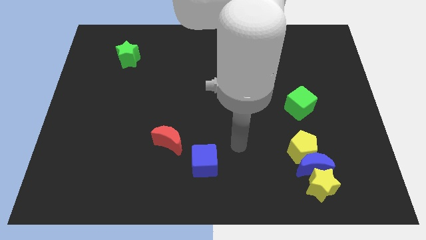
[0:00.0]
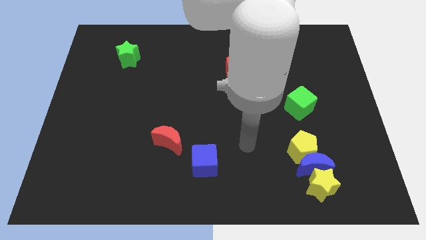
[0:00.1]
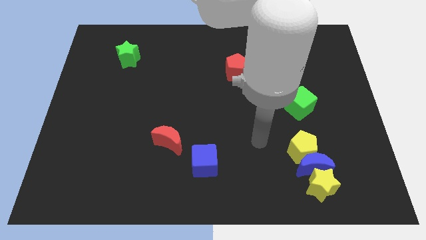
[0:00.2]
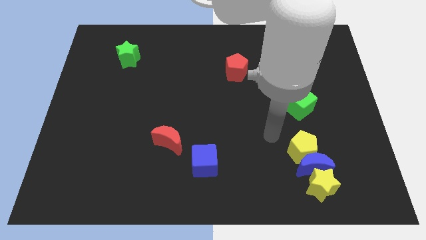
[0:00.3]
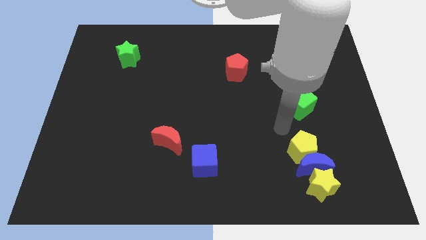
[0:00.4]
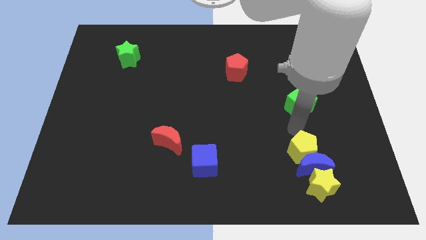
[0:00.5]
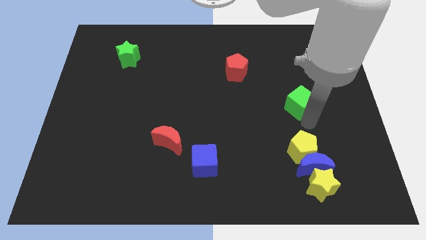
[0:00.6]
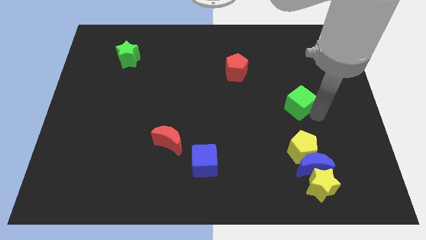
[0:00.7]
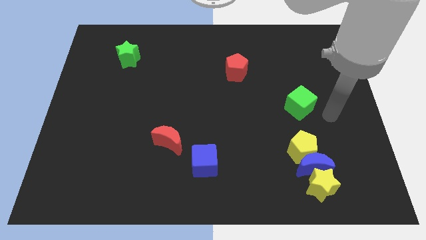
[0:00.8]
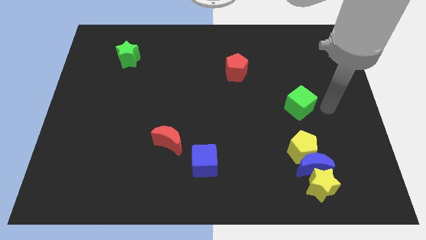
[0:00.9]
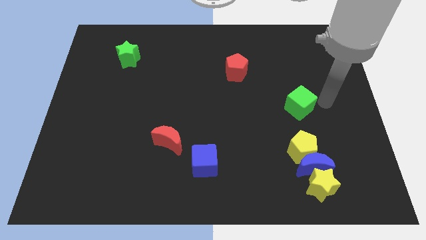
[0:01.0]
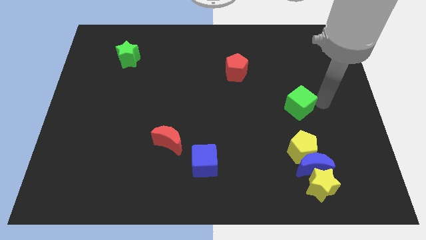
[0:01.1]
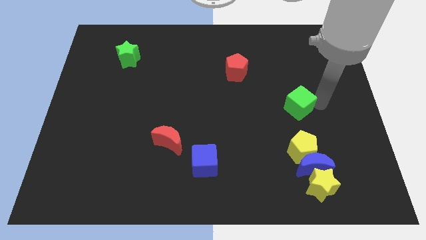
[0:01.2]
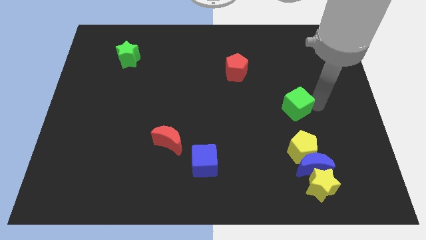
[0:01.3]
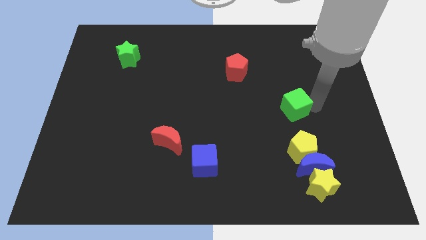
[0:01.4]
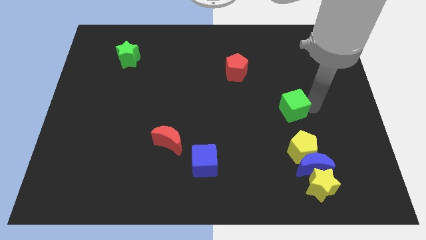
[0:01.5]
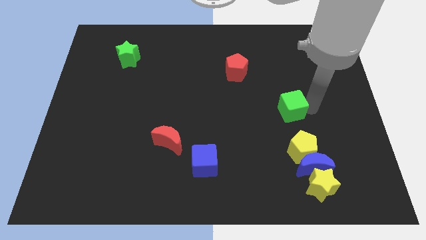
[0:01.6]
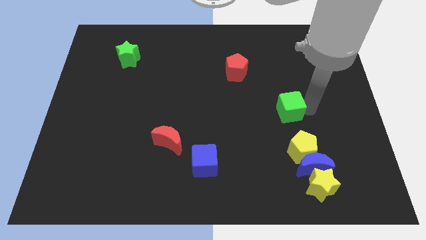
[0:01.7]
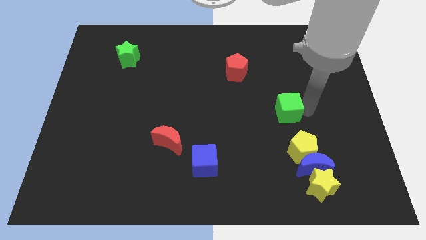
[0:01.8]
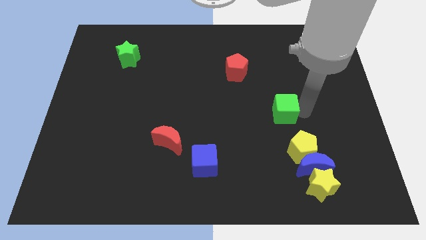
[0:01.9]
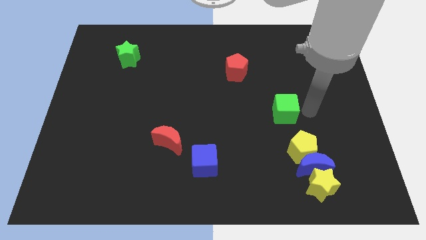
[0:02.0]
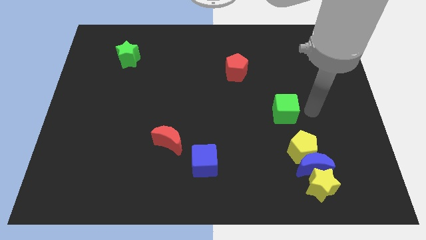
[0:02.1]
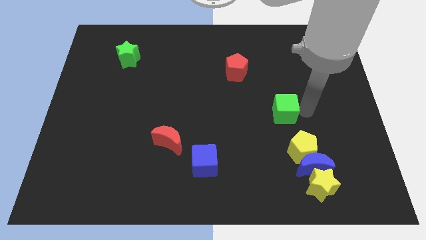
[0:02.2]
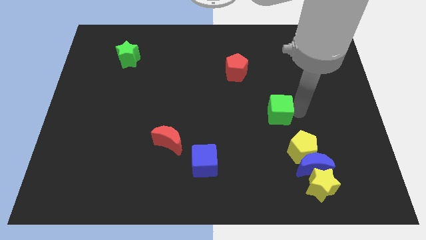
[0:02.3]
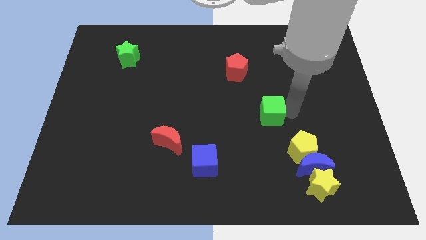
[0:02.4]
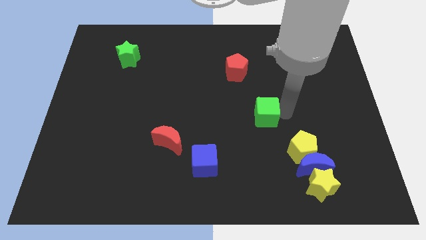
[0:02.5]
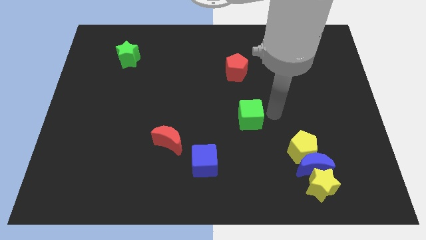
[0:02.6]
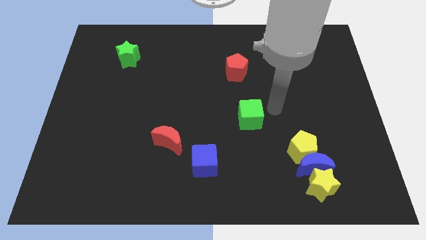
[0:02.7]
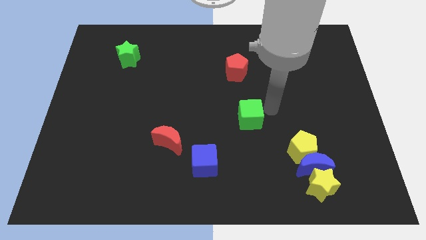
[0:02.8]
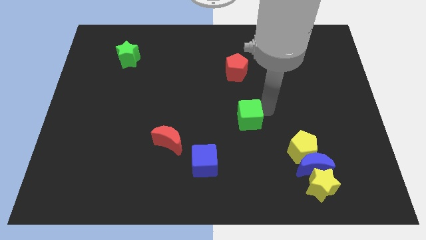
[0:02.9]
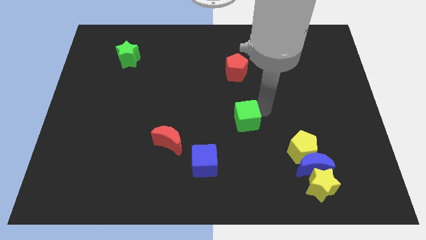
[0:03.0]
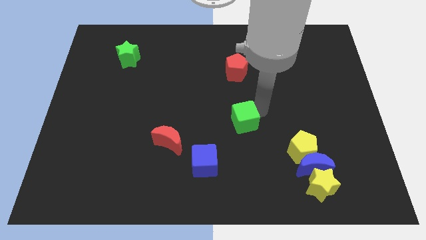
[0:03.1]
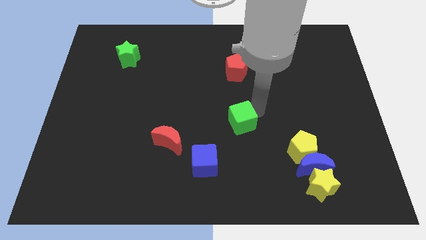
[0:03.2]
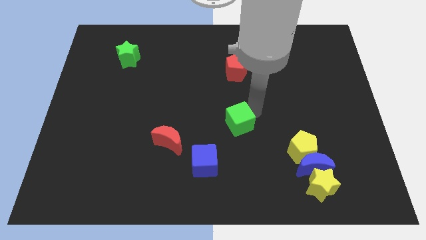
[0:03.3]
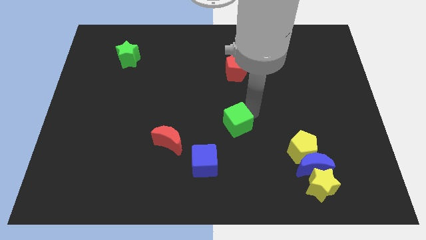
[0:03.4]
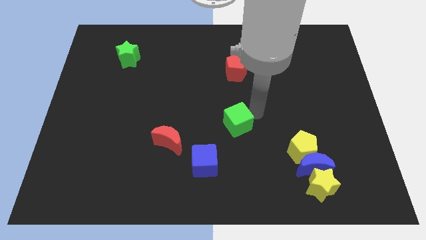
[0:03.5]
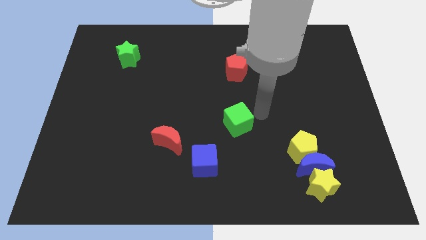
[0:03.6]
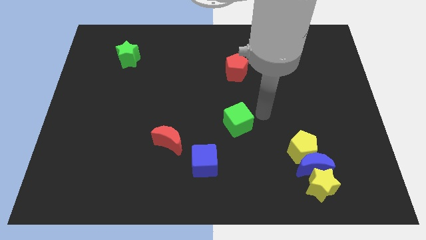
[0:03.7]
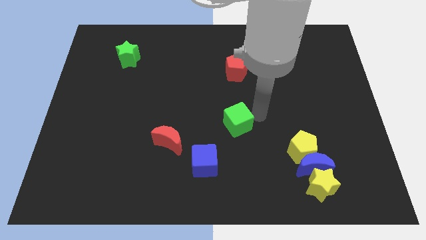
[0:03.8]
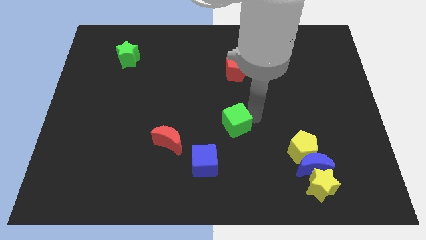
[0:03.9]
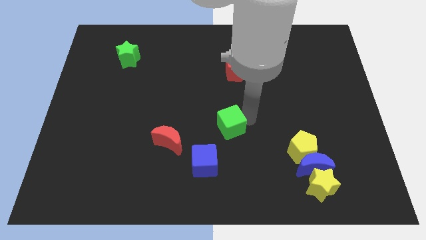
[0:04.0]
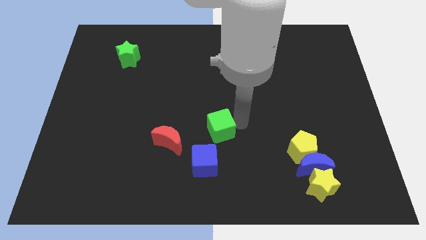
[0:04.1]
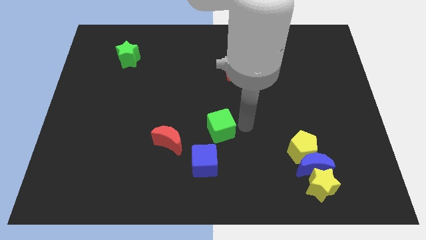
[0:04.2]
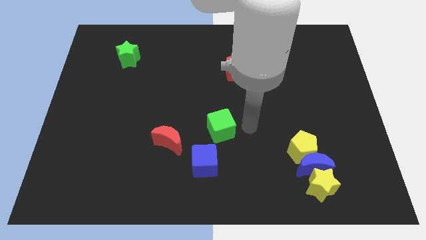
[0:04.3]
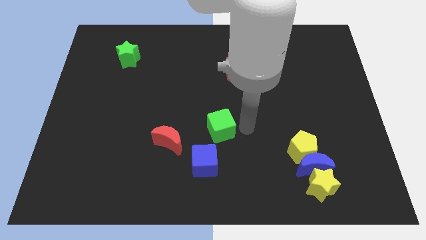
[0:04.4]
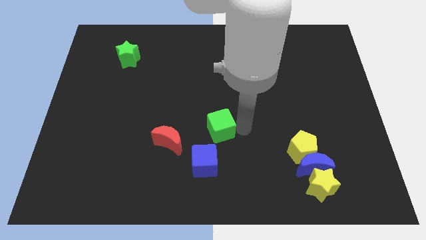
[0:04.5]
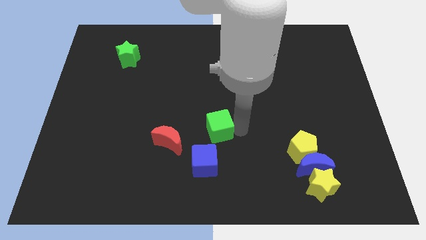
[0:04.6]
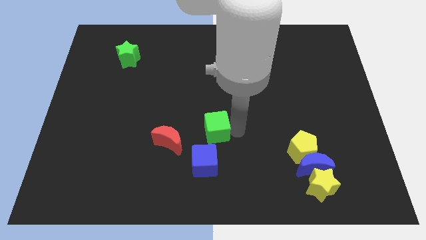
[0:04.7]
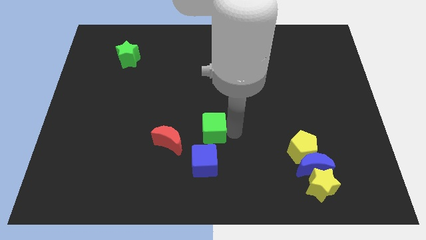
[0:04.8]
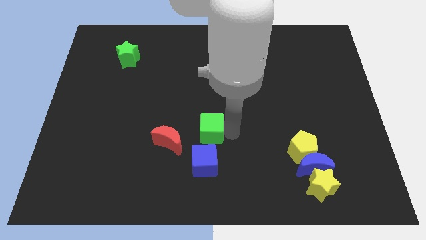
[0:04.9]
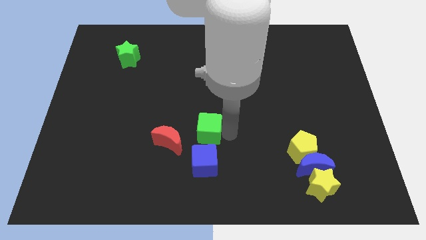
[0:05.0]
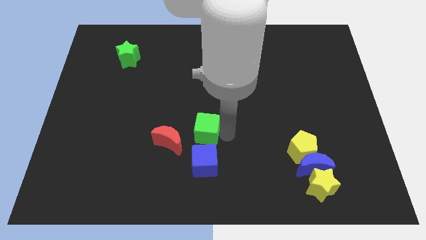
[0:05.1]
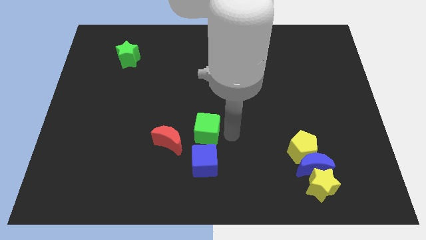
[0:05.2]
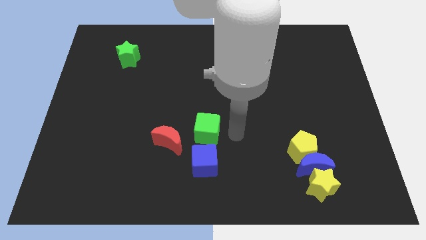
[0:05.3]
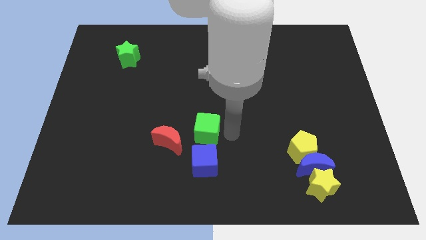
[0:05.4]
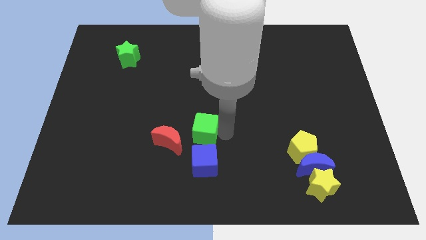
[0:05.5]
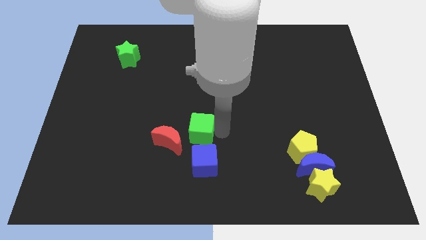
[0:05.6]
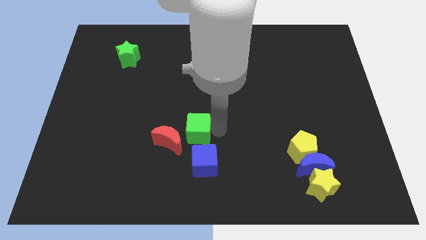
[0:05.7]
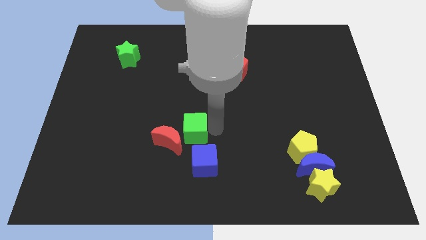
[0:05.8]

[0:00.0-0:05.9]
move the green cube close to the red moon
